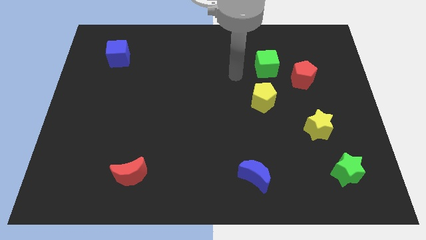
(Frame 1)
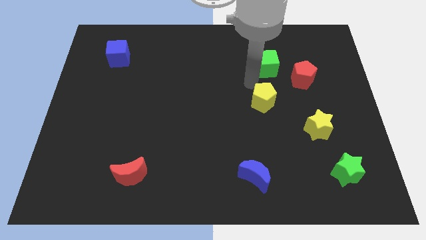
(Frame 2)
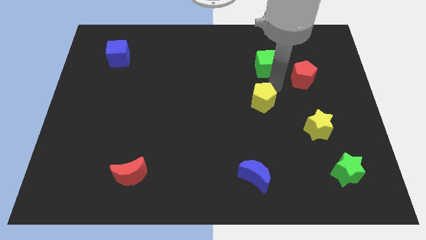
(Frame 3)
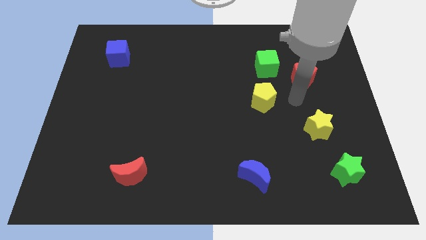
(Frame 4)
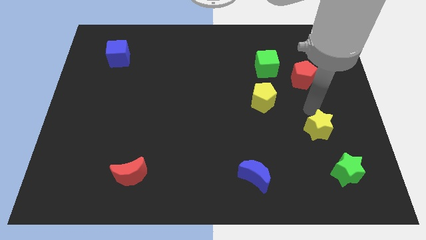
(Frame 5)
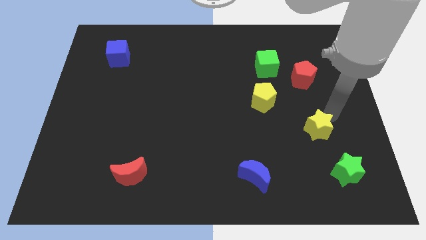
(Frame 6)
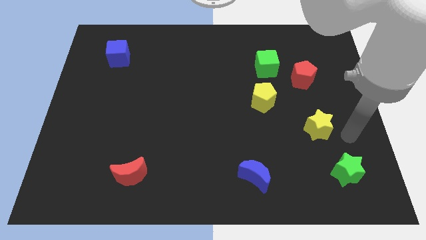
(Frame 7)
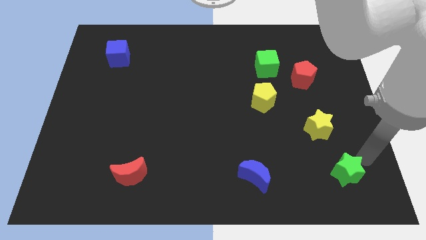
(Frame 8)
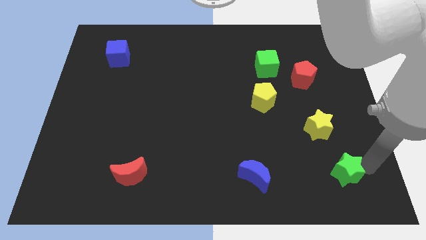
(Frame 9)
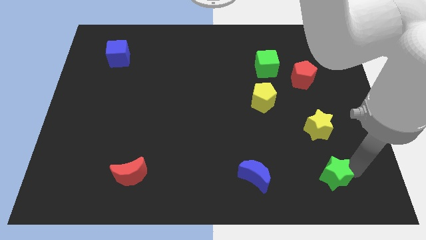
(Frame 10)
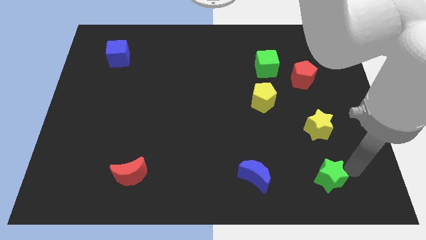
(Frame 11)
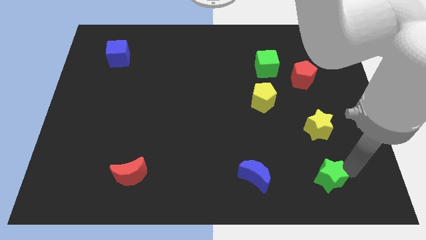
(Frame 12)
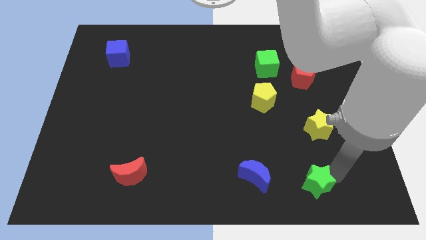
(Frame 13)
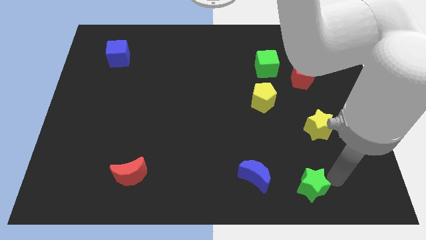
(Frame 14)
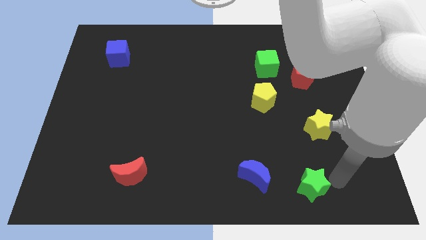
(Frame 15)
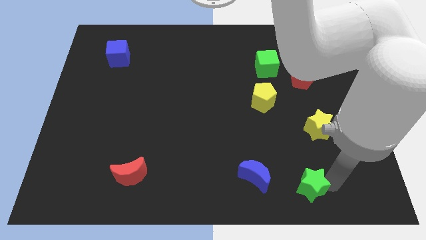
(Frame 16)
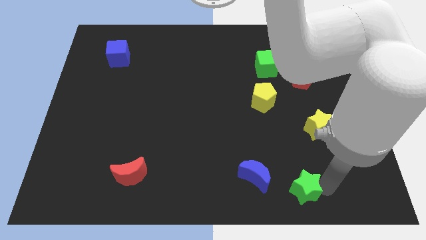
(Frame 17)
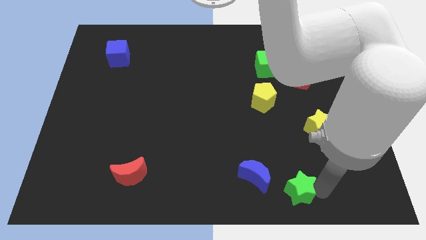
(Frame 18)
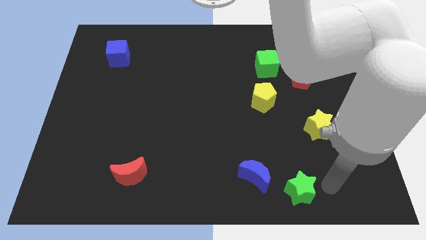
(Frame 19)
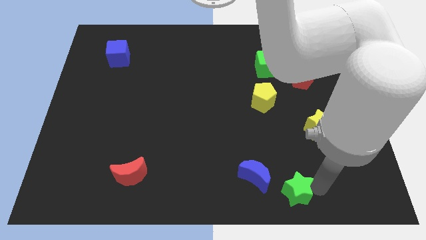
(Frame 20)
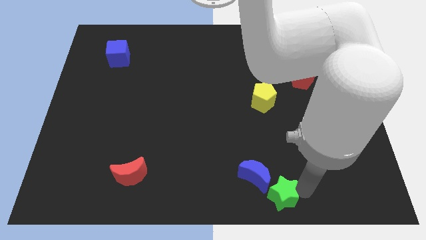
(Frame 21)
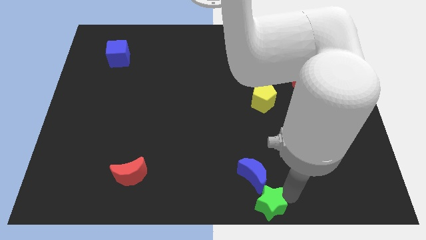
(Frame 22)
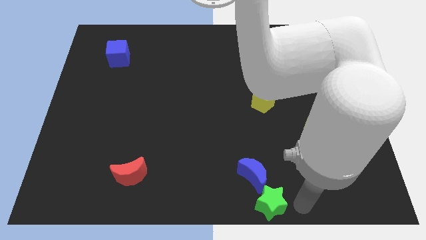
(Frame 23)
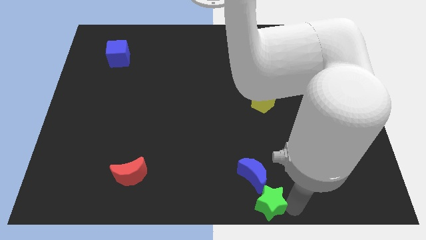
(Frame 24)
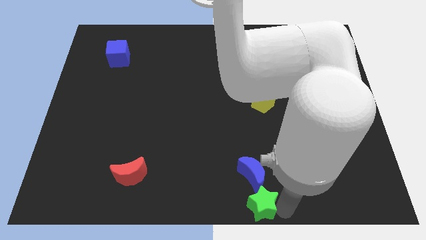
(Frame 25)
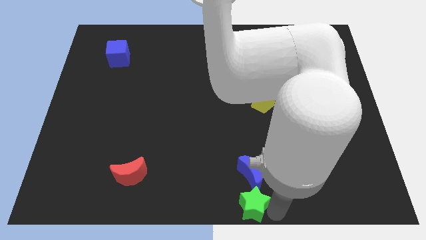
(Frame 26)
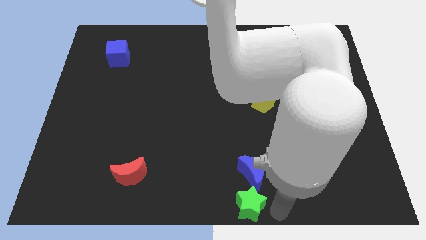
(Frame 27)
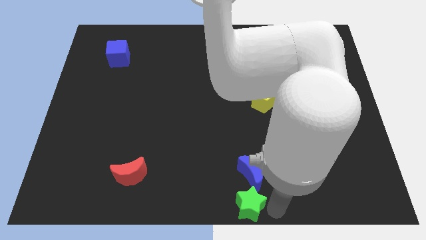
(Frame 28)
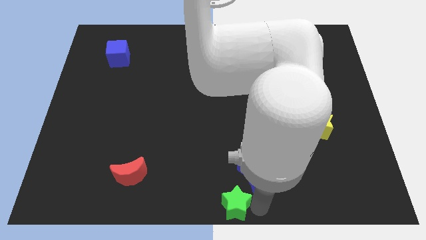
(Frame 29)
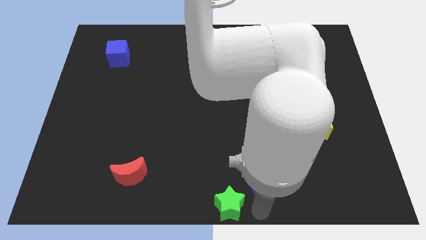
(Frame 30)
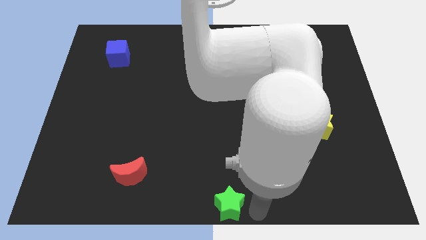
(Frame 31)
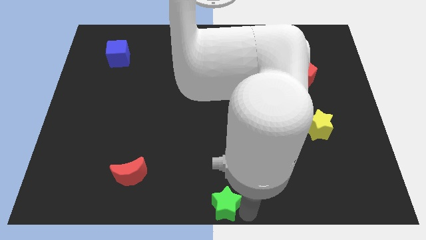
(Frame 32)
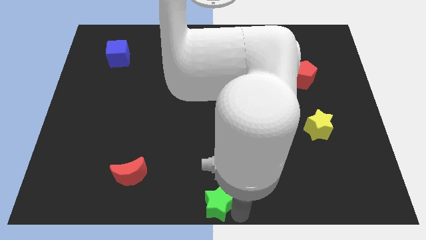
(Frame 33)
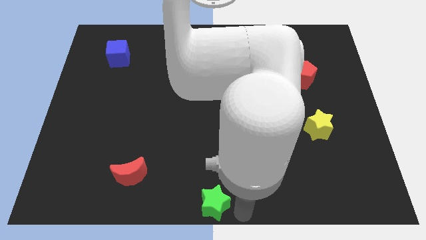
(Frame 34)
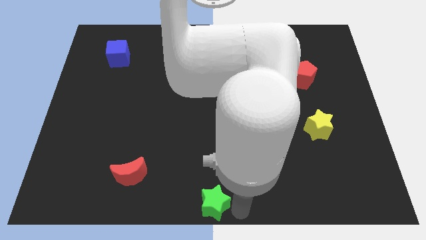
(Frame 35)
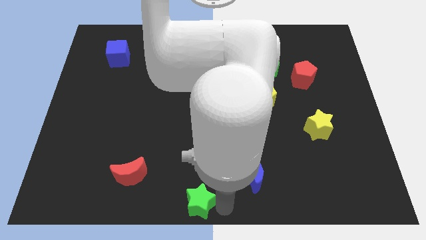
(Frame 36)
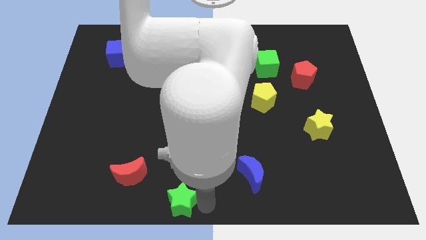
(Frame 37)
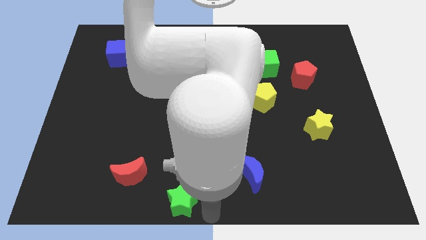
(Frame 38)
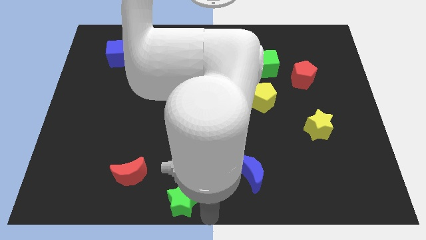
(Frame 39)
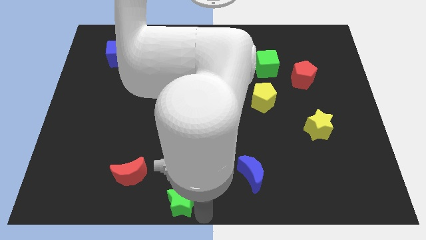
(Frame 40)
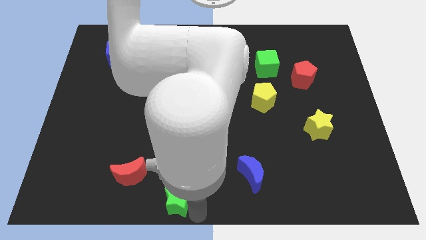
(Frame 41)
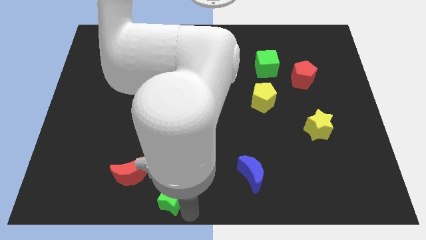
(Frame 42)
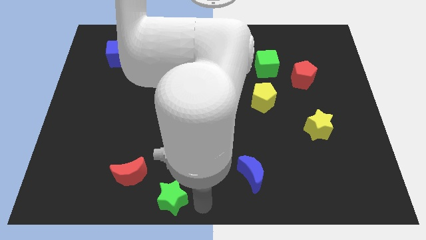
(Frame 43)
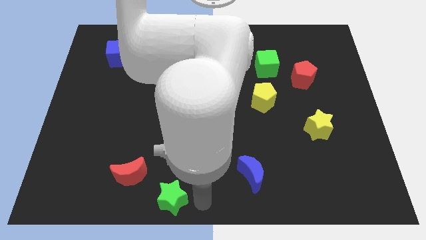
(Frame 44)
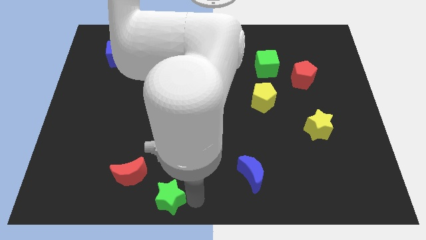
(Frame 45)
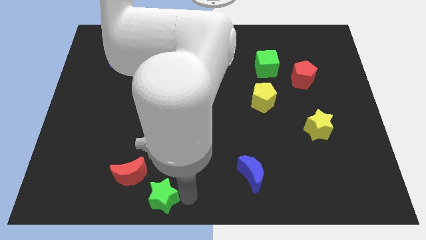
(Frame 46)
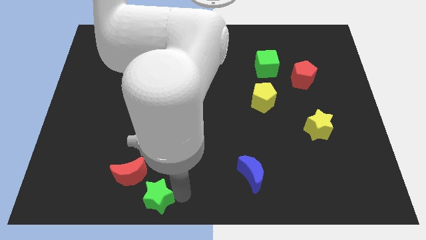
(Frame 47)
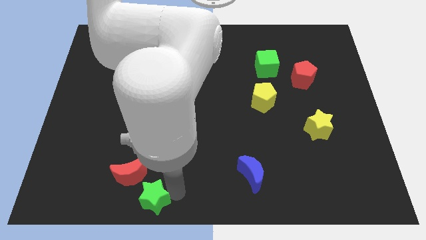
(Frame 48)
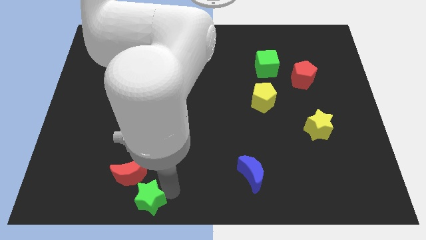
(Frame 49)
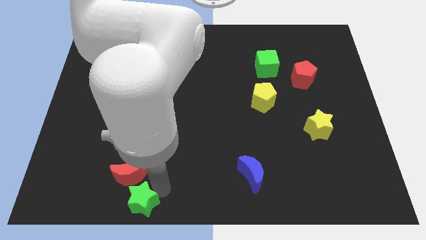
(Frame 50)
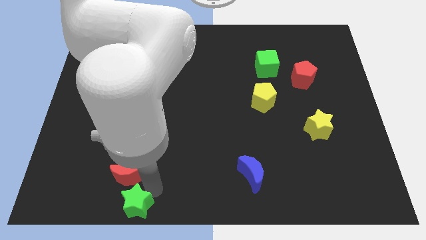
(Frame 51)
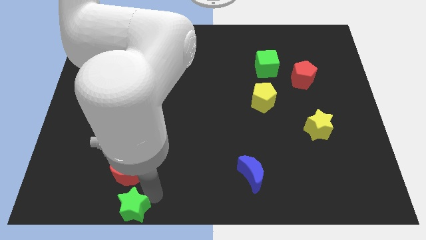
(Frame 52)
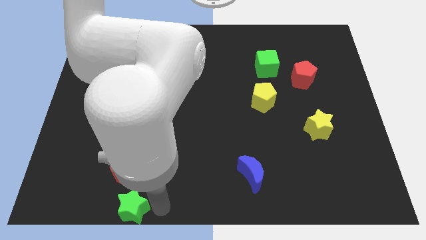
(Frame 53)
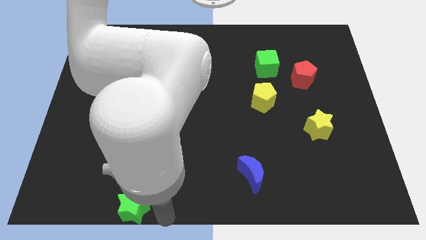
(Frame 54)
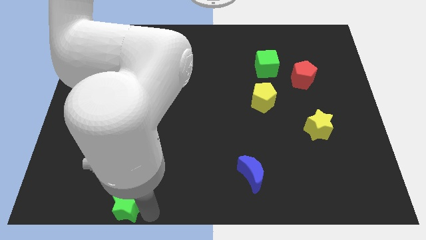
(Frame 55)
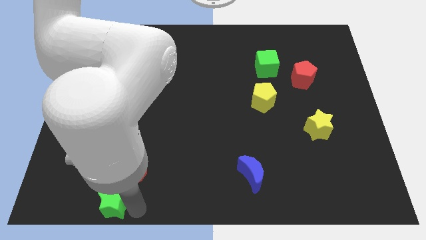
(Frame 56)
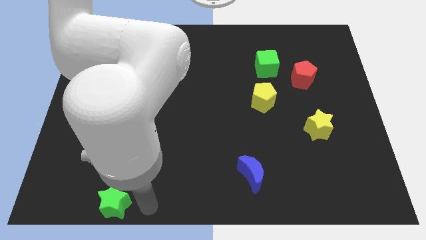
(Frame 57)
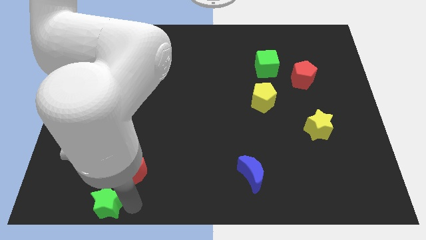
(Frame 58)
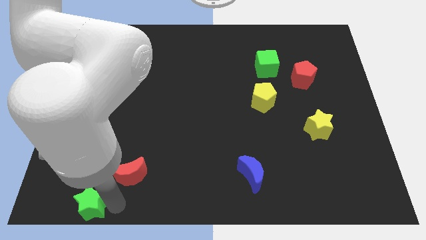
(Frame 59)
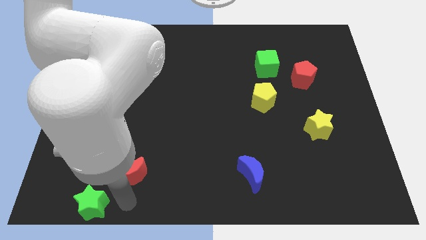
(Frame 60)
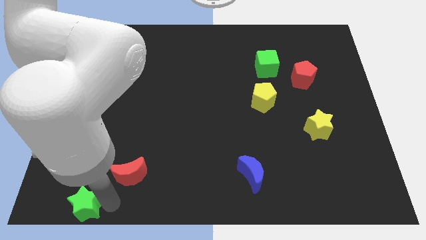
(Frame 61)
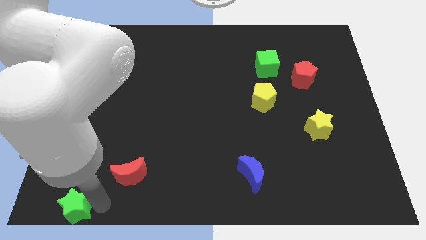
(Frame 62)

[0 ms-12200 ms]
slide the green star to the bottom left corner

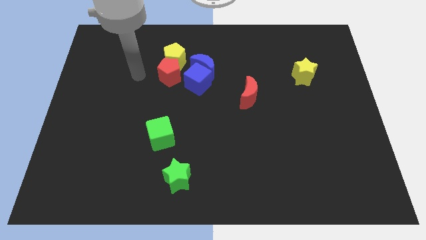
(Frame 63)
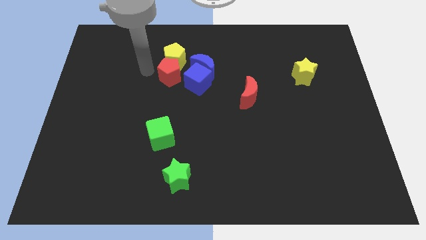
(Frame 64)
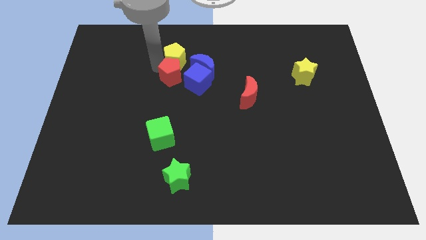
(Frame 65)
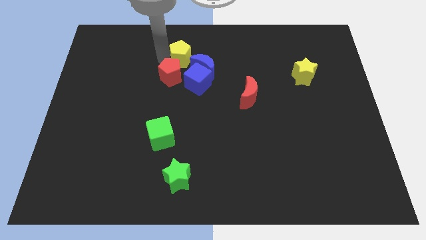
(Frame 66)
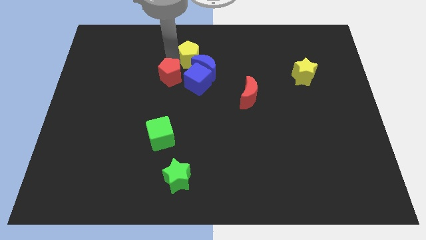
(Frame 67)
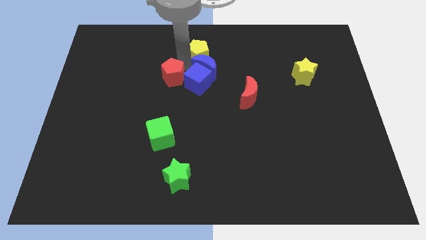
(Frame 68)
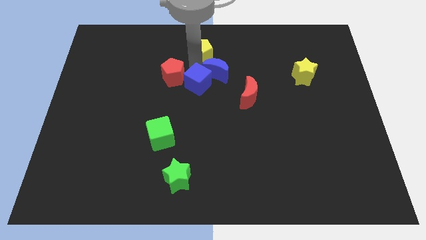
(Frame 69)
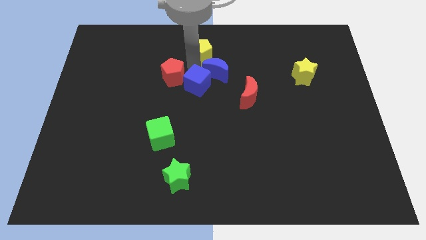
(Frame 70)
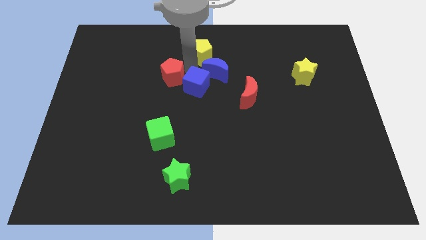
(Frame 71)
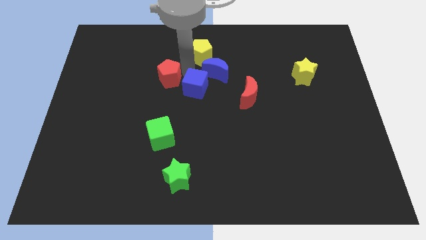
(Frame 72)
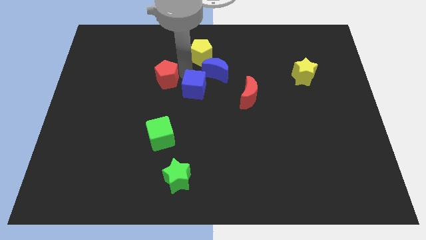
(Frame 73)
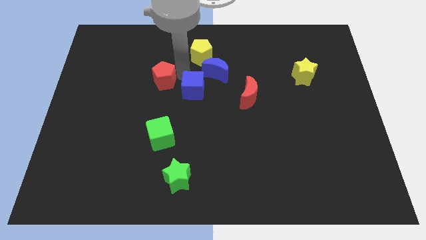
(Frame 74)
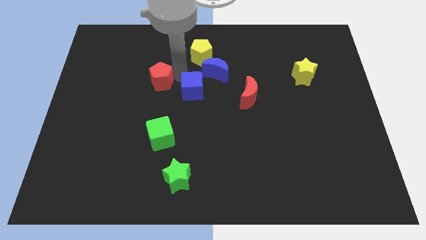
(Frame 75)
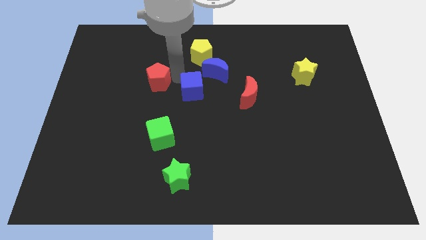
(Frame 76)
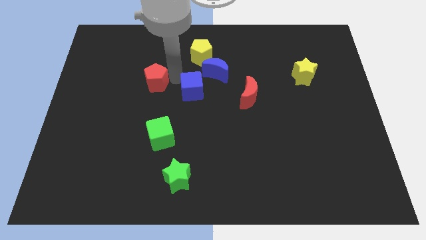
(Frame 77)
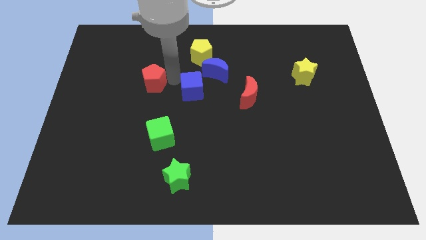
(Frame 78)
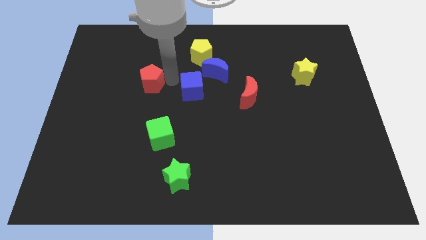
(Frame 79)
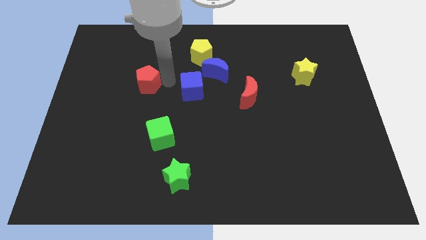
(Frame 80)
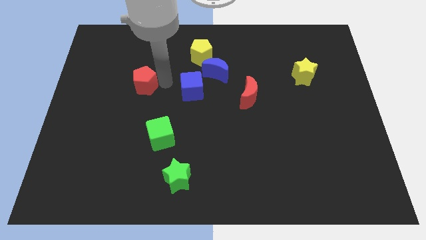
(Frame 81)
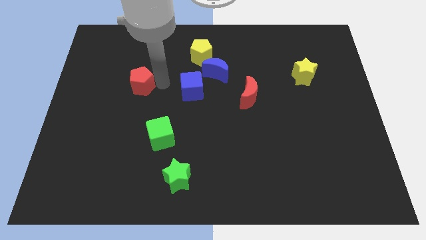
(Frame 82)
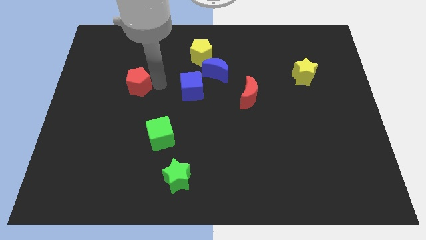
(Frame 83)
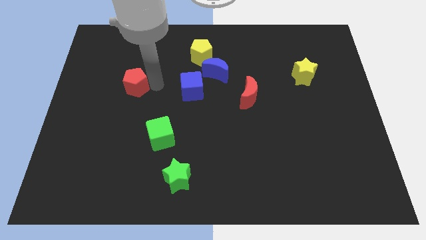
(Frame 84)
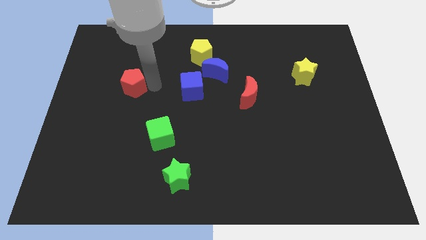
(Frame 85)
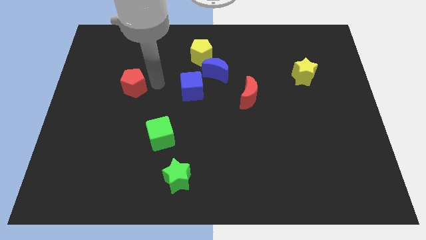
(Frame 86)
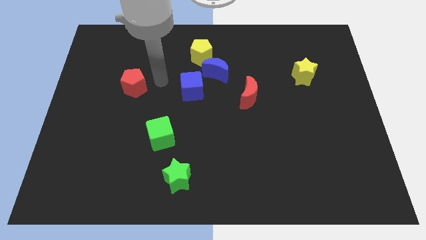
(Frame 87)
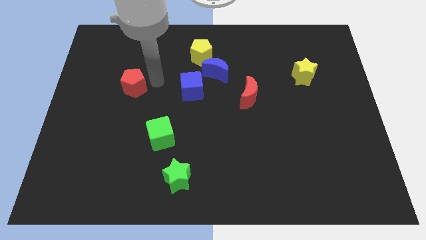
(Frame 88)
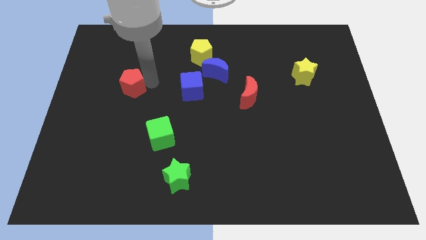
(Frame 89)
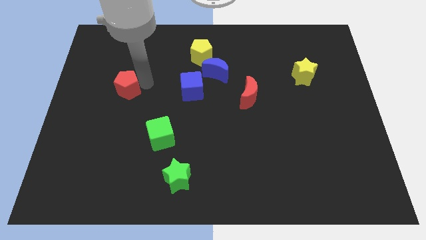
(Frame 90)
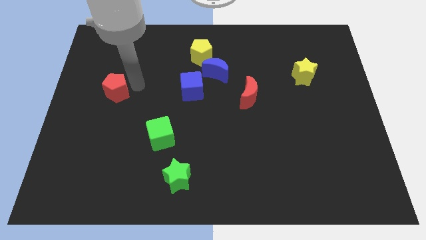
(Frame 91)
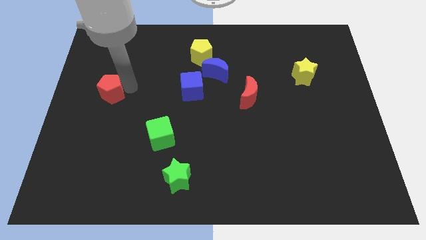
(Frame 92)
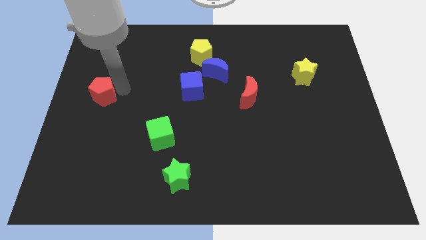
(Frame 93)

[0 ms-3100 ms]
move the red pentagon to the left side
